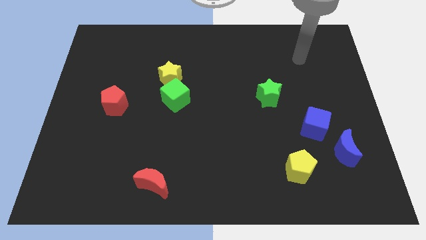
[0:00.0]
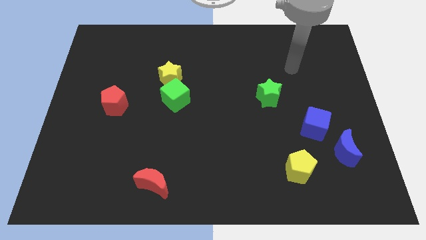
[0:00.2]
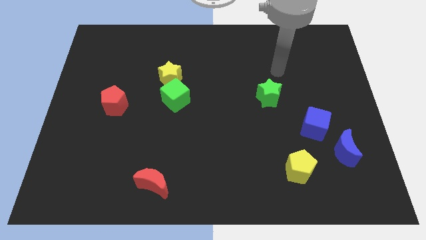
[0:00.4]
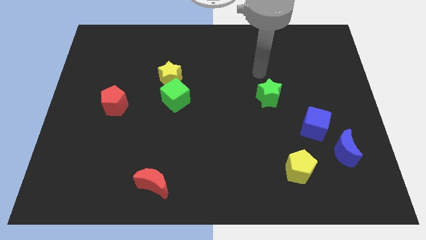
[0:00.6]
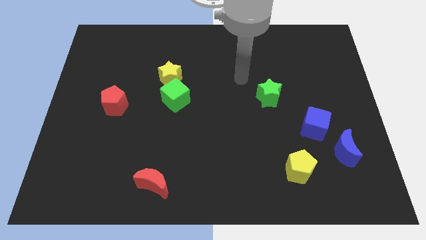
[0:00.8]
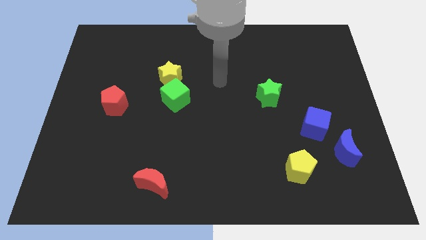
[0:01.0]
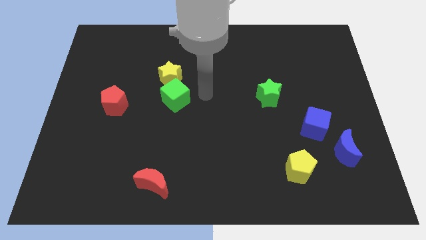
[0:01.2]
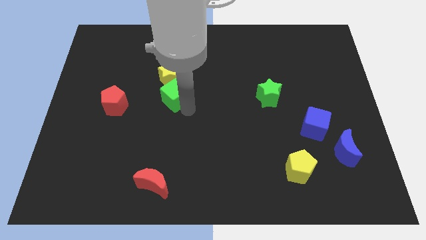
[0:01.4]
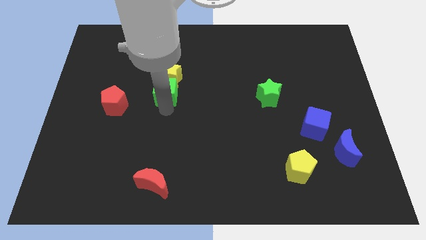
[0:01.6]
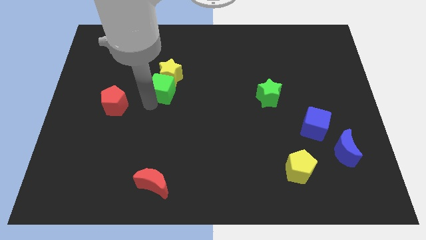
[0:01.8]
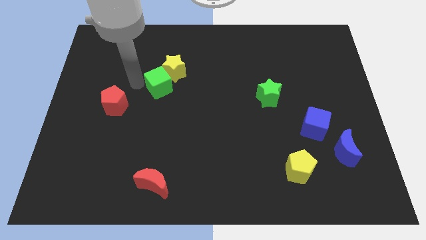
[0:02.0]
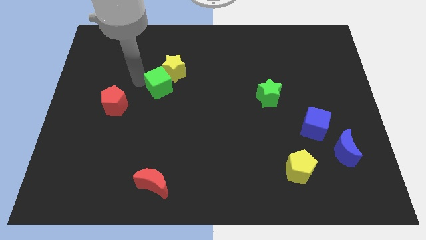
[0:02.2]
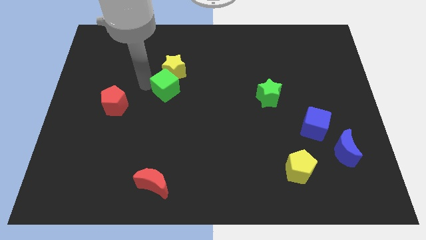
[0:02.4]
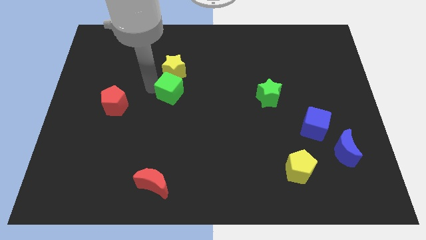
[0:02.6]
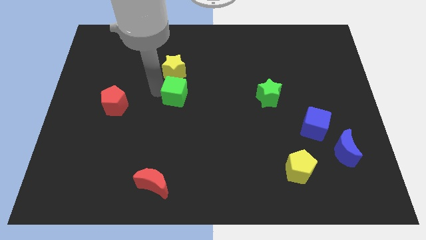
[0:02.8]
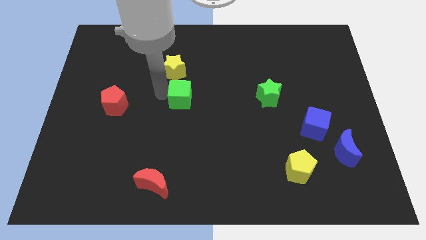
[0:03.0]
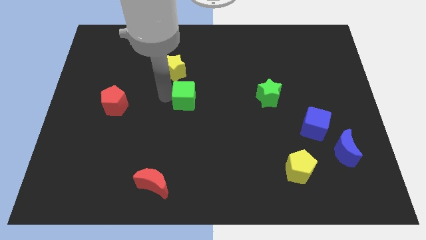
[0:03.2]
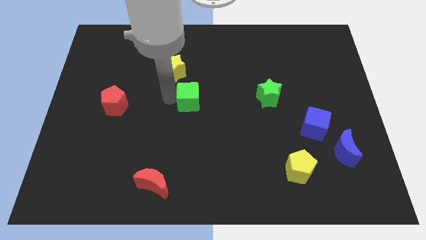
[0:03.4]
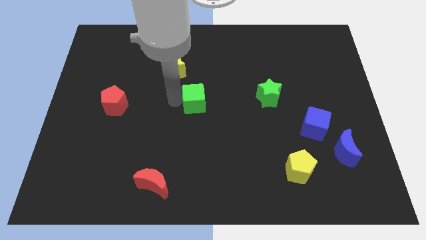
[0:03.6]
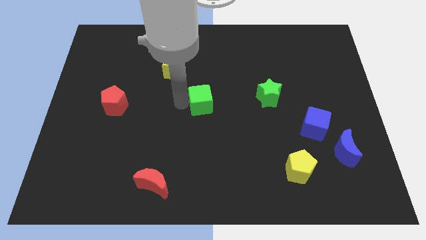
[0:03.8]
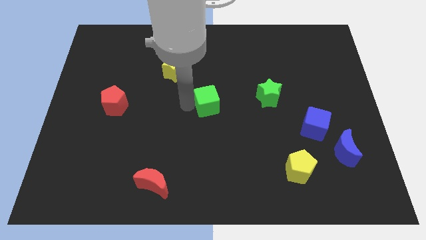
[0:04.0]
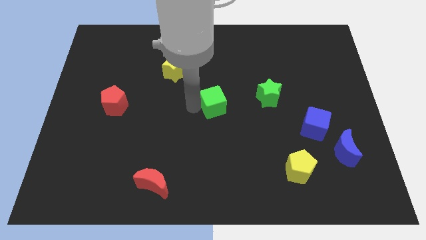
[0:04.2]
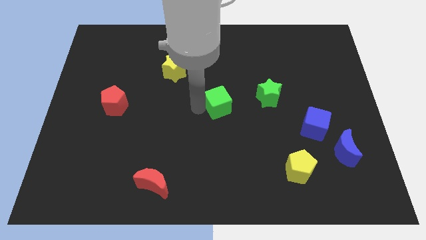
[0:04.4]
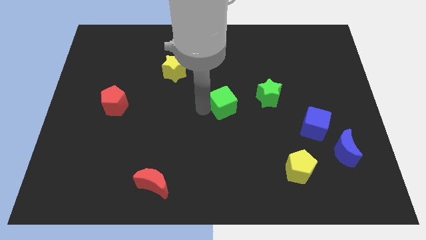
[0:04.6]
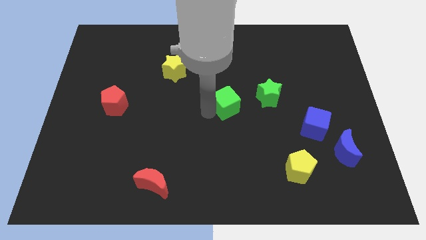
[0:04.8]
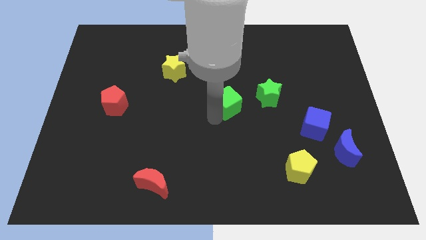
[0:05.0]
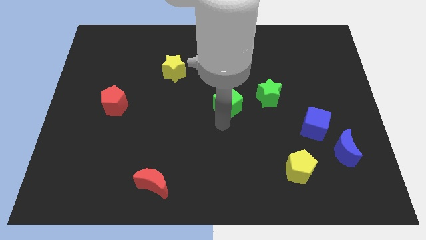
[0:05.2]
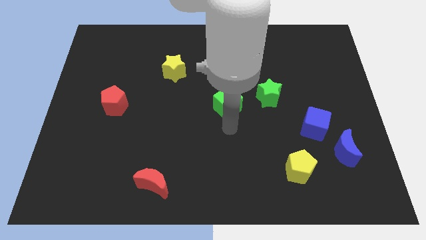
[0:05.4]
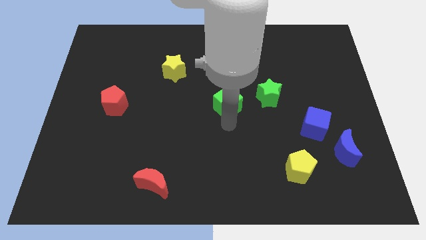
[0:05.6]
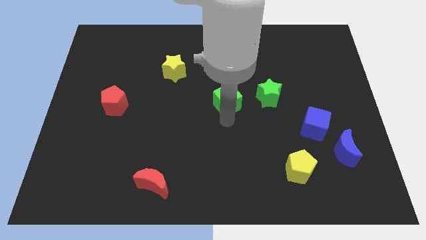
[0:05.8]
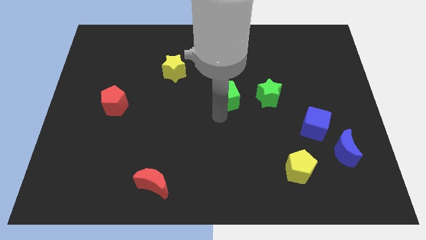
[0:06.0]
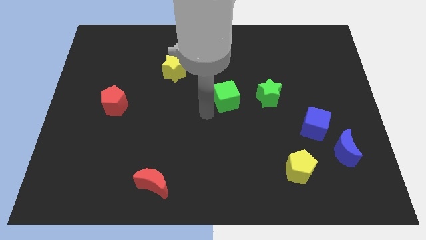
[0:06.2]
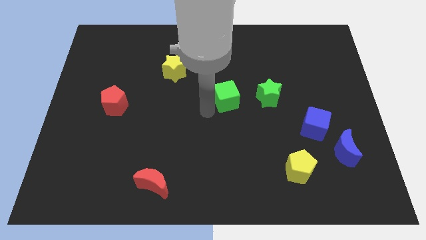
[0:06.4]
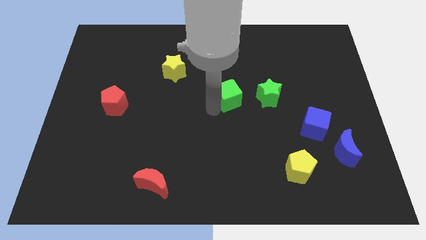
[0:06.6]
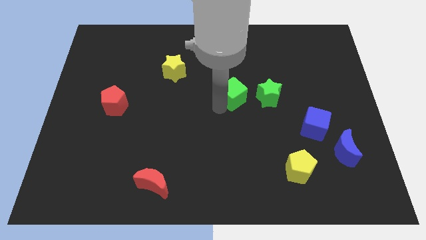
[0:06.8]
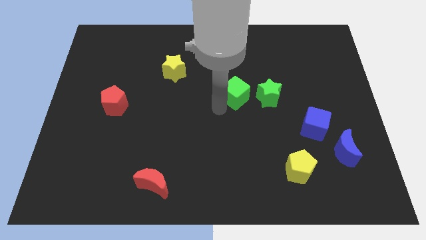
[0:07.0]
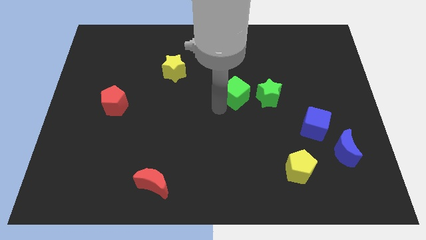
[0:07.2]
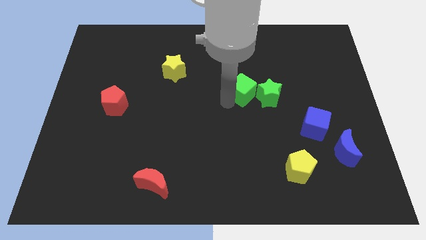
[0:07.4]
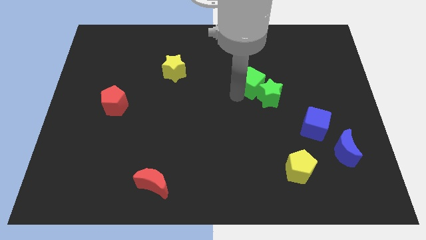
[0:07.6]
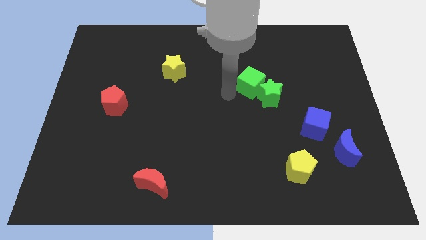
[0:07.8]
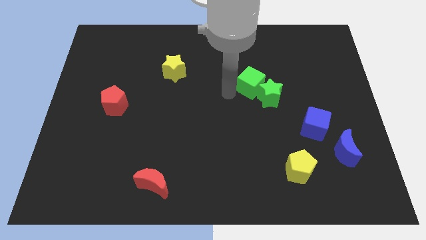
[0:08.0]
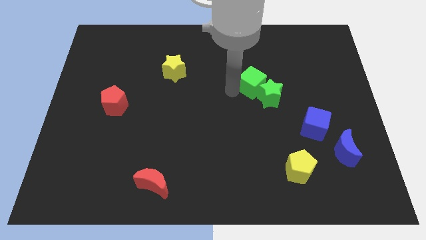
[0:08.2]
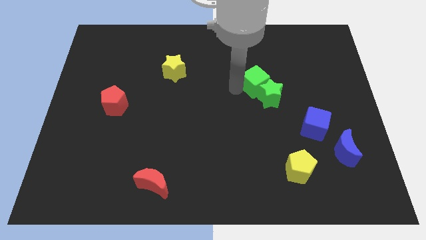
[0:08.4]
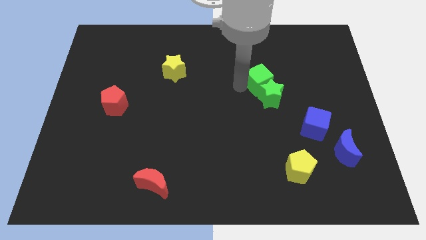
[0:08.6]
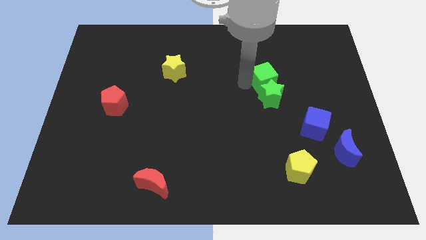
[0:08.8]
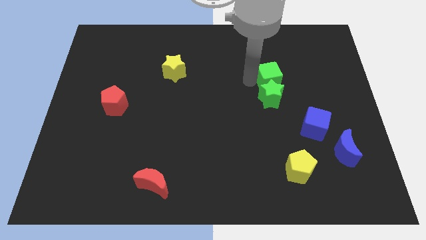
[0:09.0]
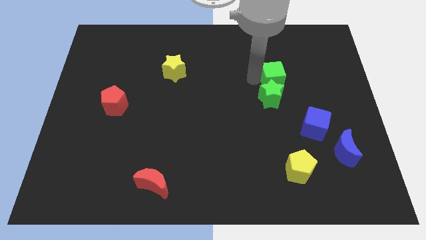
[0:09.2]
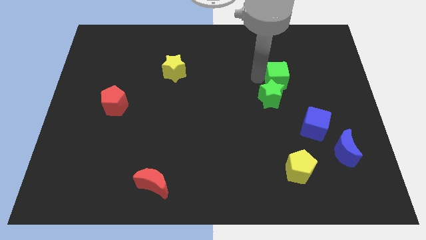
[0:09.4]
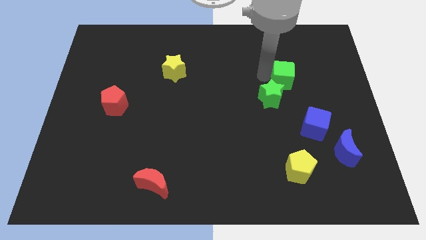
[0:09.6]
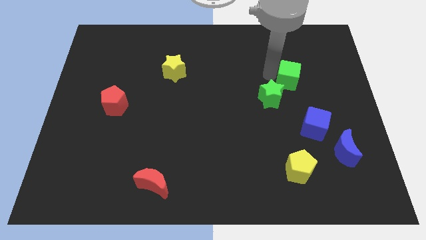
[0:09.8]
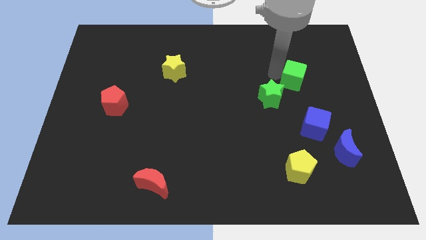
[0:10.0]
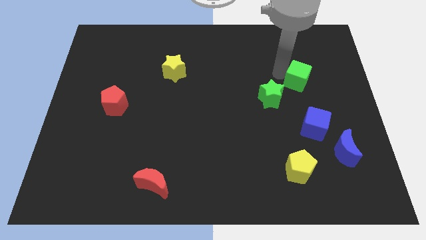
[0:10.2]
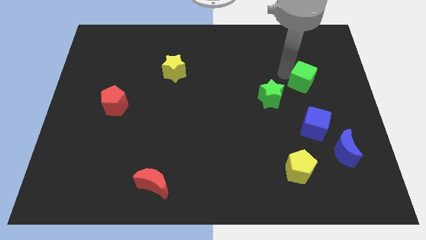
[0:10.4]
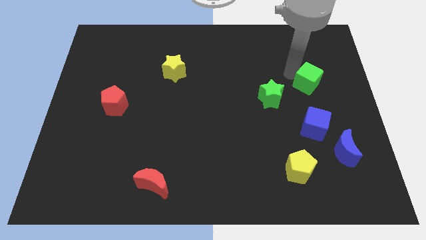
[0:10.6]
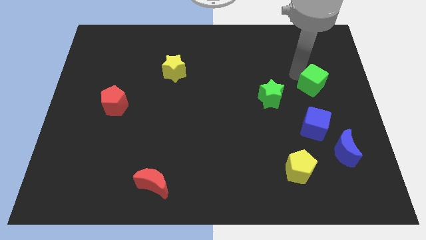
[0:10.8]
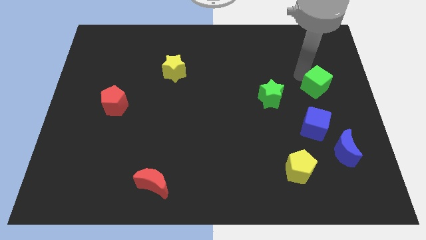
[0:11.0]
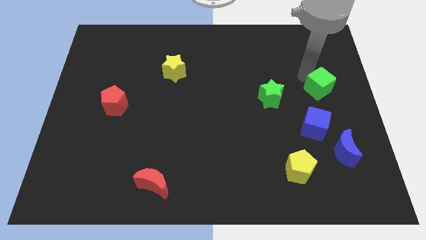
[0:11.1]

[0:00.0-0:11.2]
move the green cube to the right side
